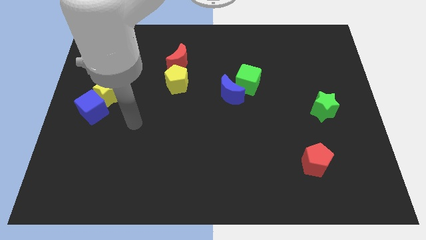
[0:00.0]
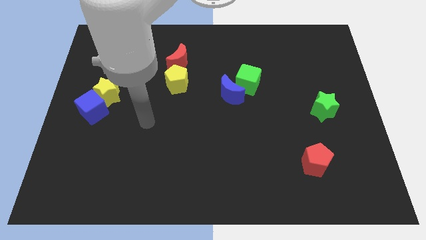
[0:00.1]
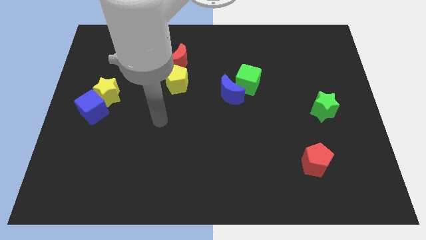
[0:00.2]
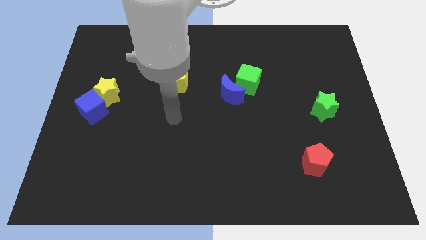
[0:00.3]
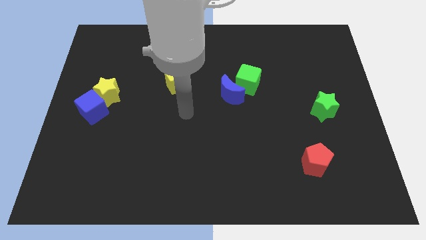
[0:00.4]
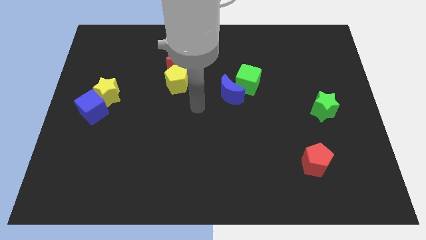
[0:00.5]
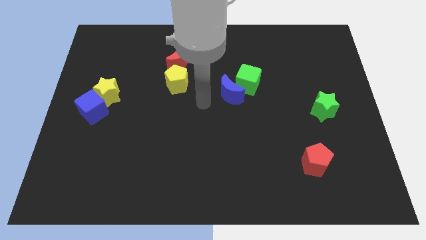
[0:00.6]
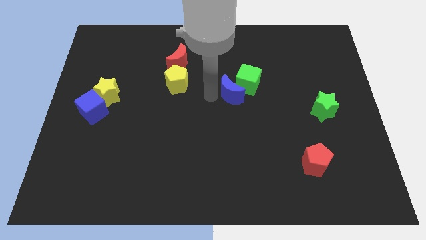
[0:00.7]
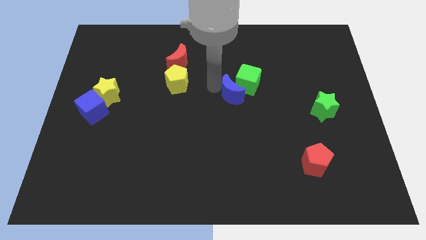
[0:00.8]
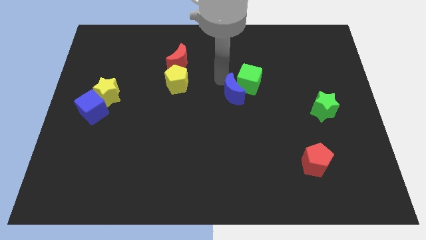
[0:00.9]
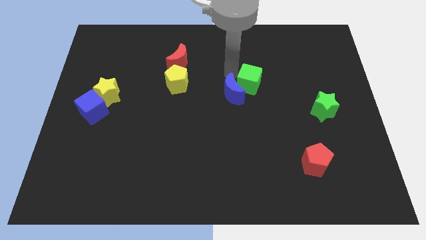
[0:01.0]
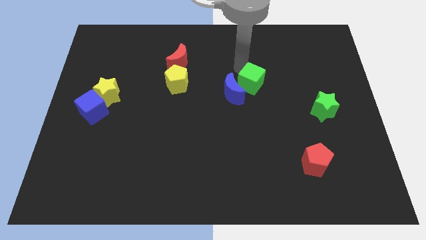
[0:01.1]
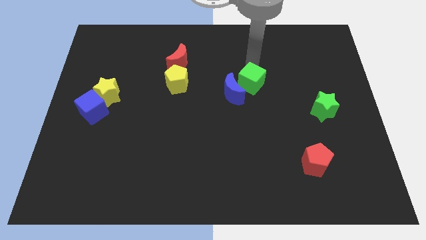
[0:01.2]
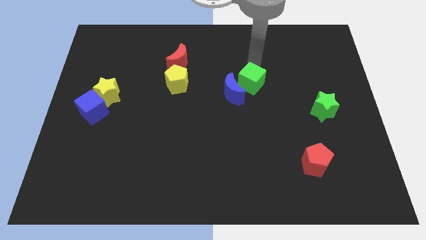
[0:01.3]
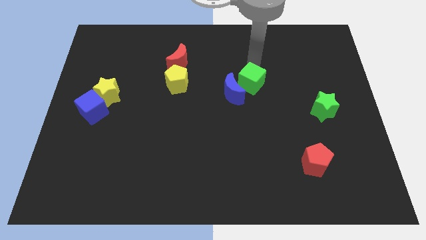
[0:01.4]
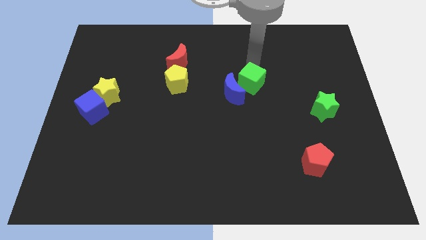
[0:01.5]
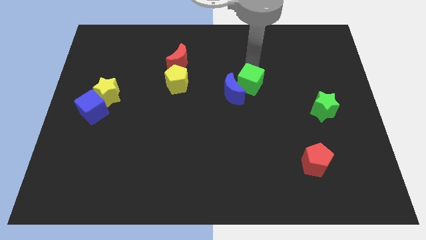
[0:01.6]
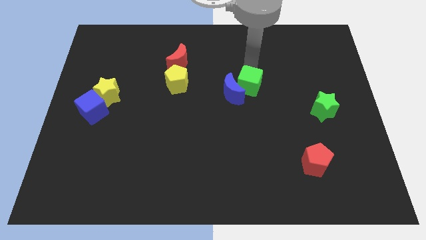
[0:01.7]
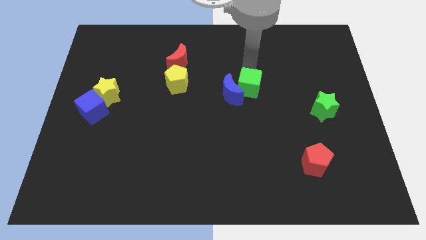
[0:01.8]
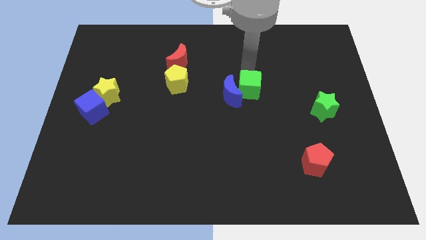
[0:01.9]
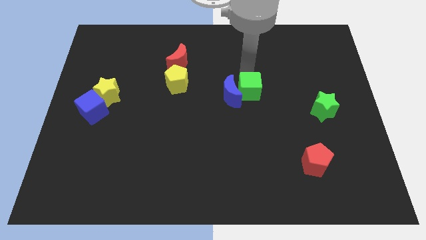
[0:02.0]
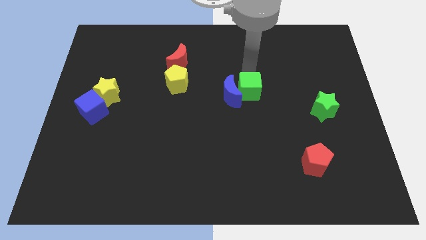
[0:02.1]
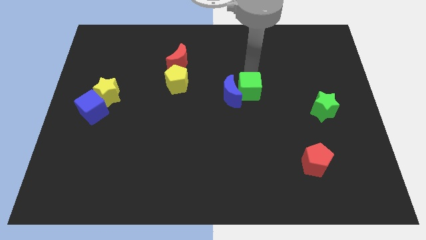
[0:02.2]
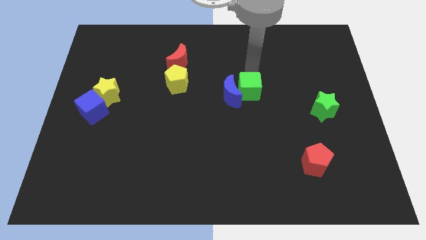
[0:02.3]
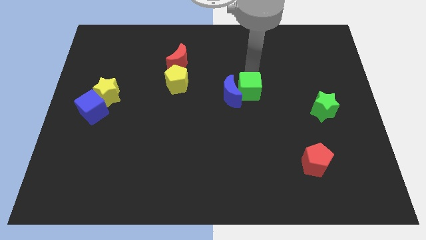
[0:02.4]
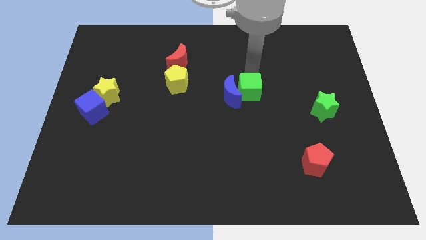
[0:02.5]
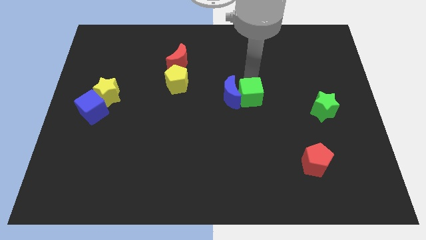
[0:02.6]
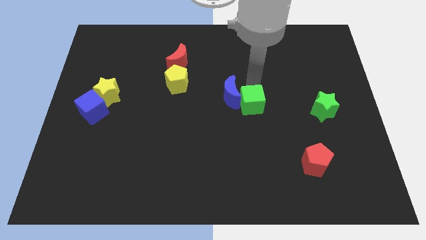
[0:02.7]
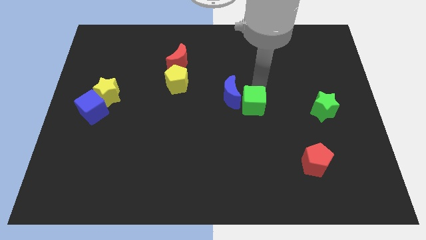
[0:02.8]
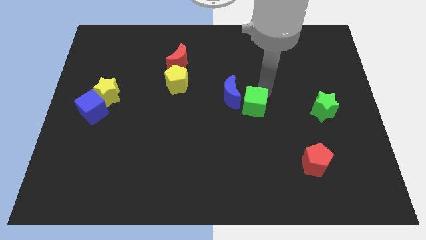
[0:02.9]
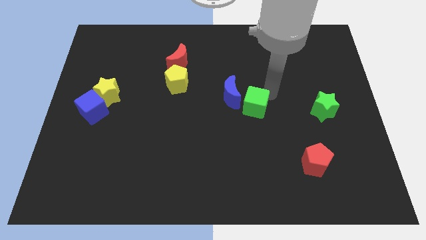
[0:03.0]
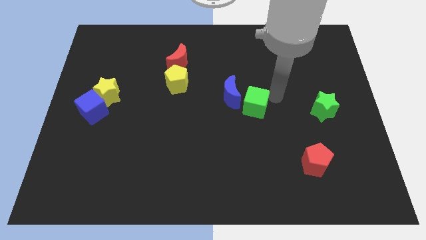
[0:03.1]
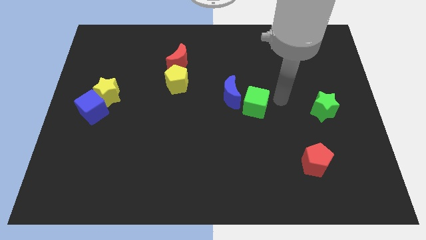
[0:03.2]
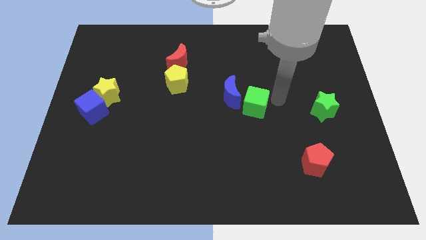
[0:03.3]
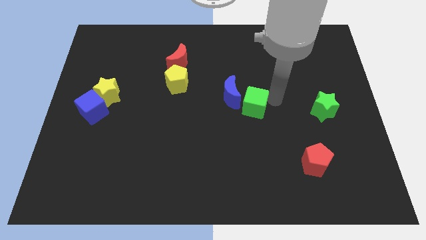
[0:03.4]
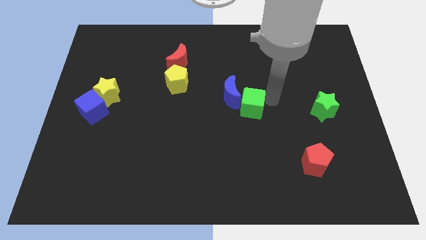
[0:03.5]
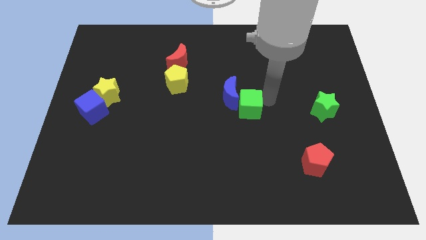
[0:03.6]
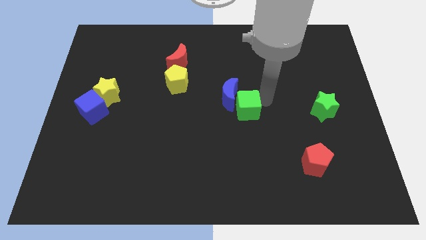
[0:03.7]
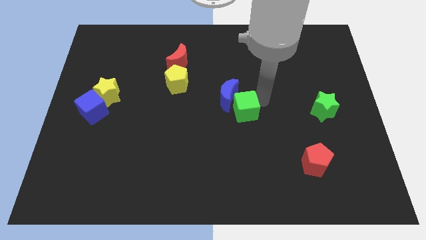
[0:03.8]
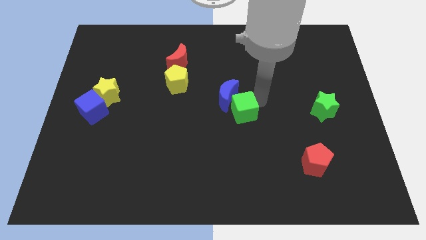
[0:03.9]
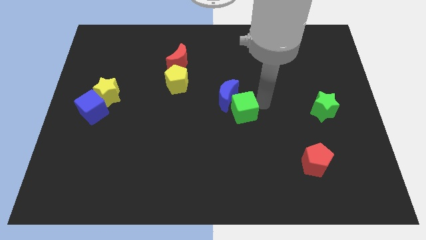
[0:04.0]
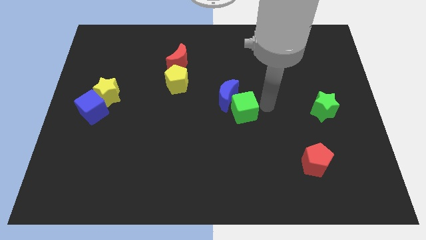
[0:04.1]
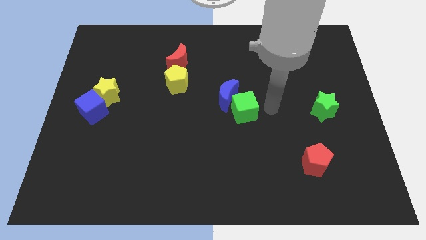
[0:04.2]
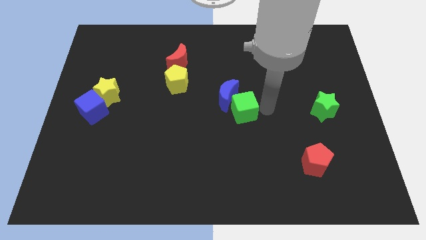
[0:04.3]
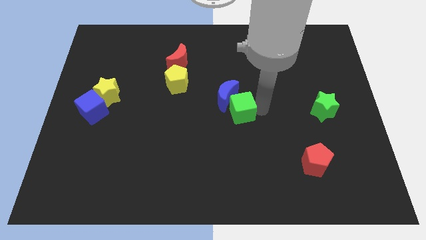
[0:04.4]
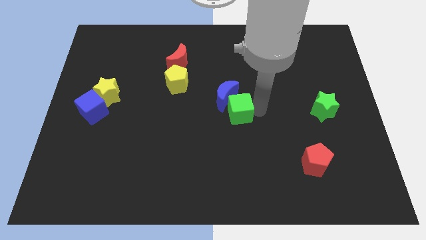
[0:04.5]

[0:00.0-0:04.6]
slightly push the green cube down and to the left

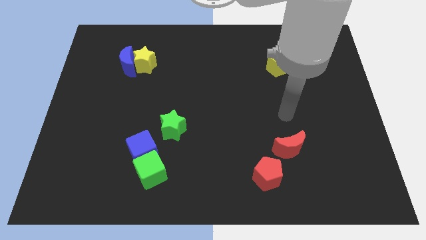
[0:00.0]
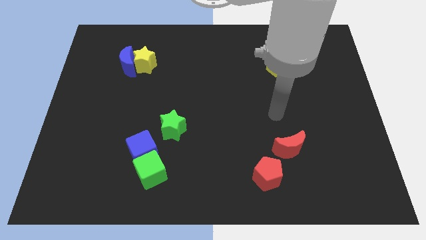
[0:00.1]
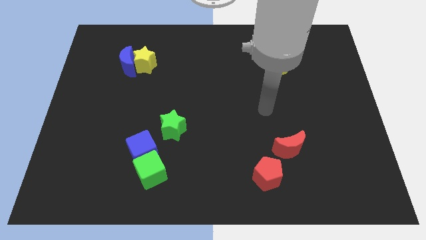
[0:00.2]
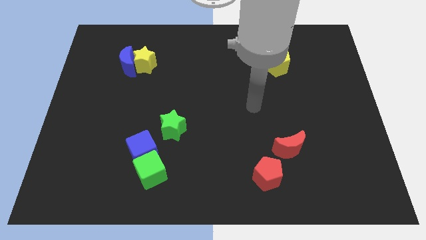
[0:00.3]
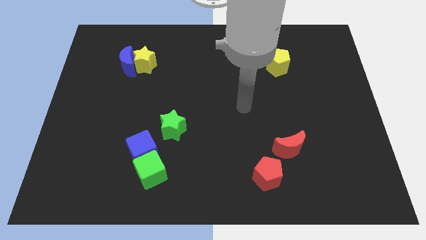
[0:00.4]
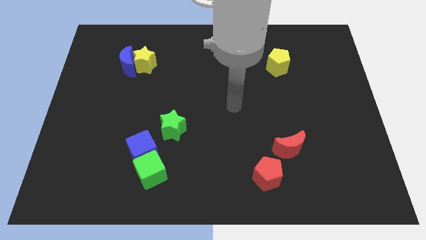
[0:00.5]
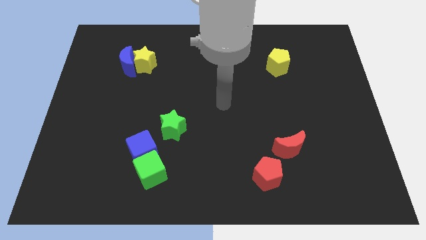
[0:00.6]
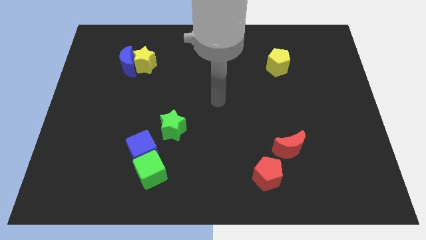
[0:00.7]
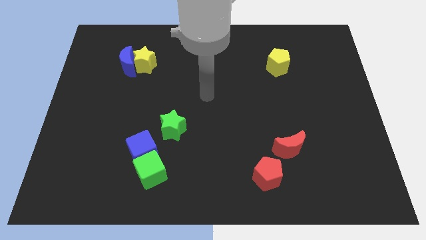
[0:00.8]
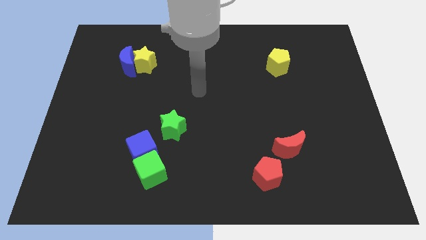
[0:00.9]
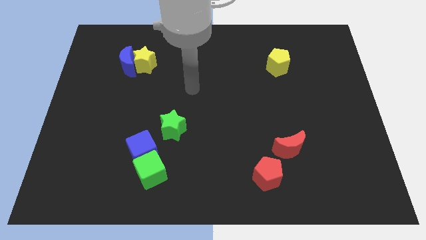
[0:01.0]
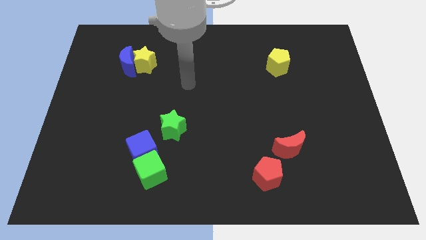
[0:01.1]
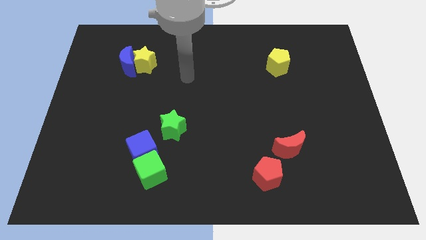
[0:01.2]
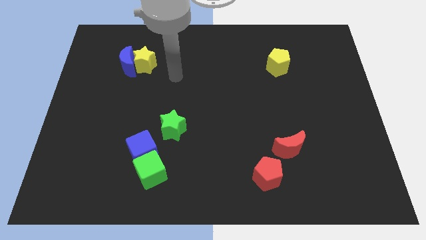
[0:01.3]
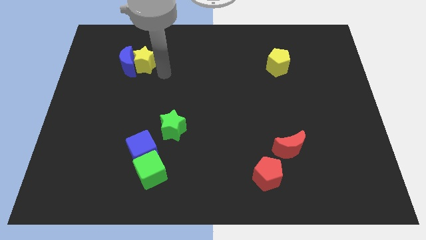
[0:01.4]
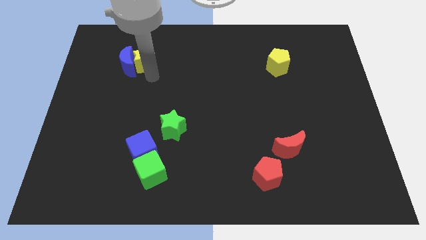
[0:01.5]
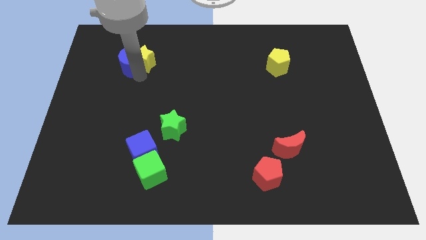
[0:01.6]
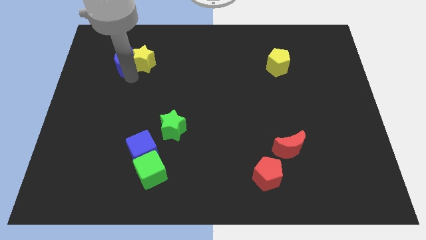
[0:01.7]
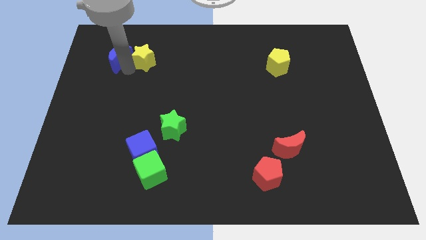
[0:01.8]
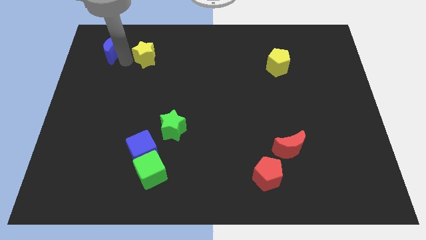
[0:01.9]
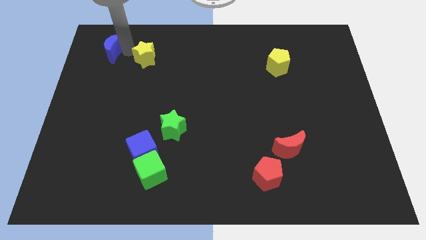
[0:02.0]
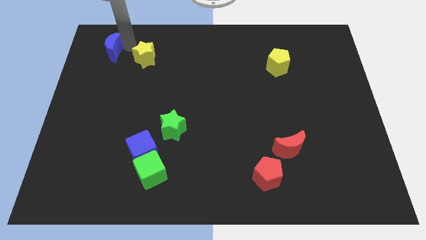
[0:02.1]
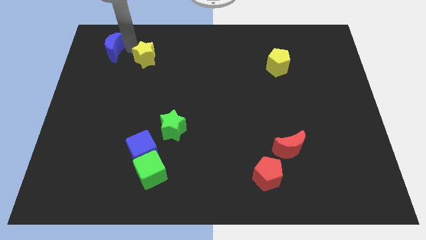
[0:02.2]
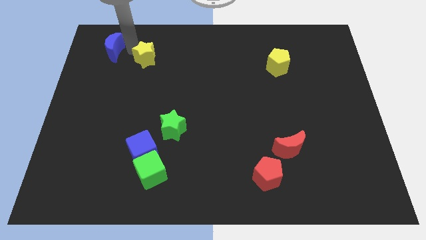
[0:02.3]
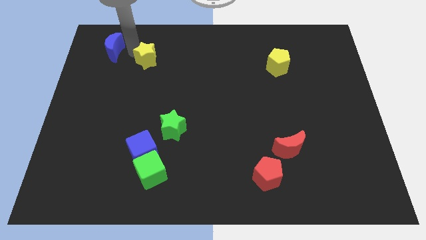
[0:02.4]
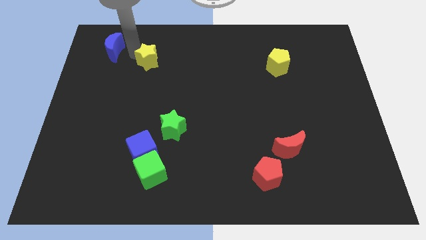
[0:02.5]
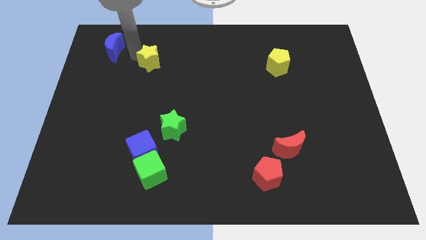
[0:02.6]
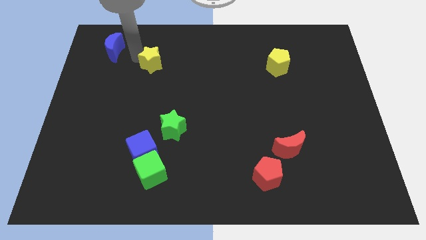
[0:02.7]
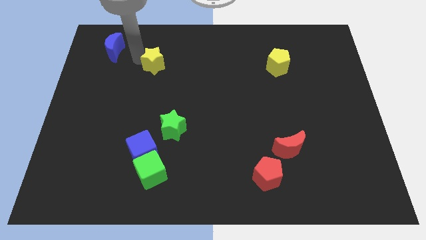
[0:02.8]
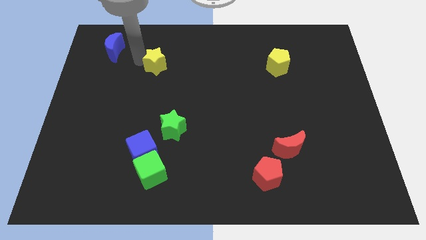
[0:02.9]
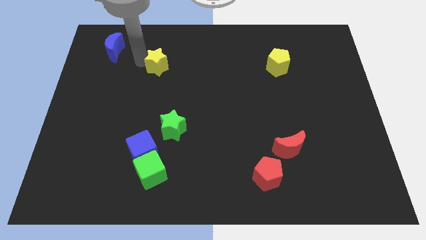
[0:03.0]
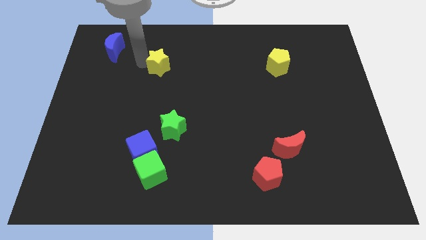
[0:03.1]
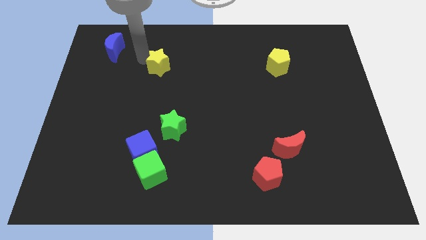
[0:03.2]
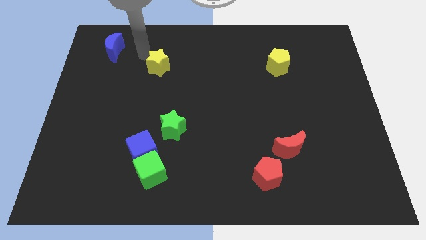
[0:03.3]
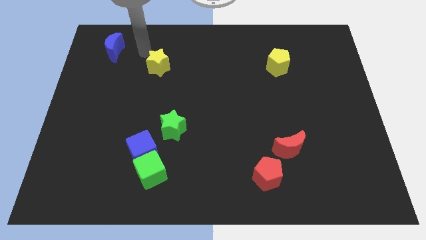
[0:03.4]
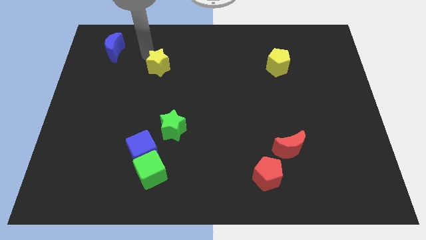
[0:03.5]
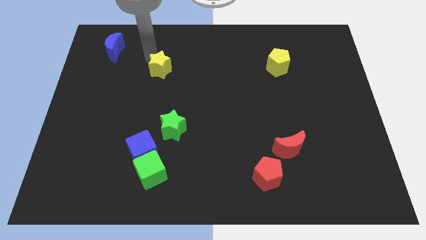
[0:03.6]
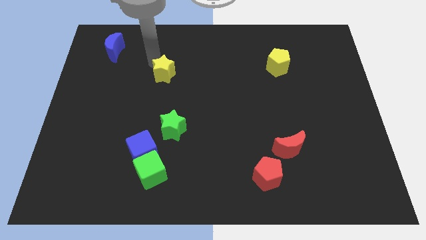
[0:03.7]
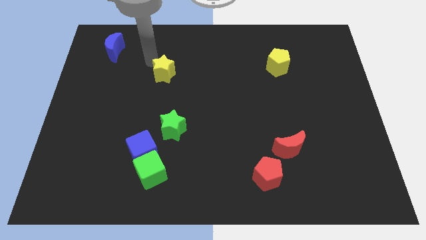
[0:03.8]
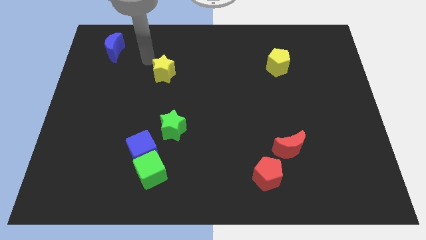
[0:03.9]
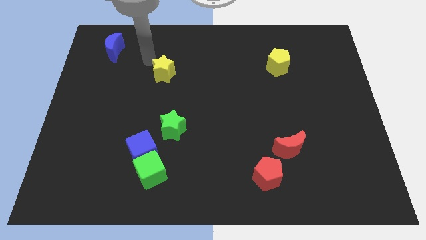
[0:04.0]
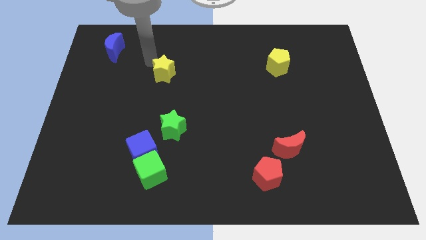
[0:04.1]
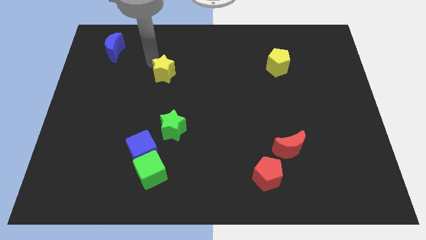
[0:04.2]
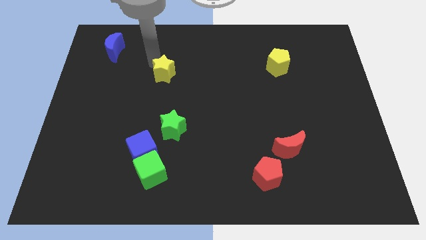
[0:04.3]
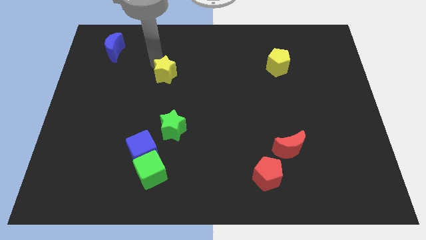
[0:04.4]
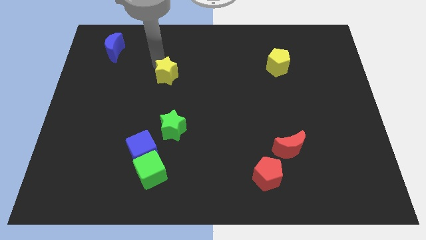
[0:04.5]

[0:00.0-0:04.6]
slightly move the yellow star downwards and then right
